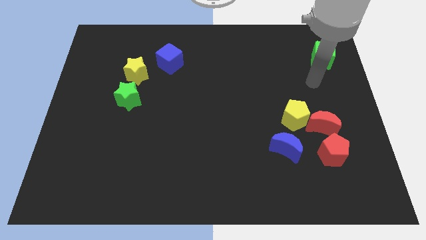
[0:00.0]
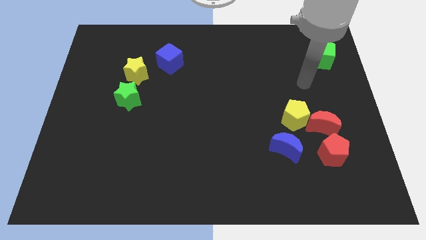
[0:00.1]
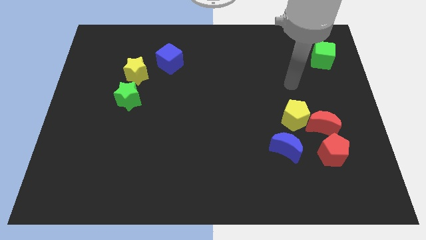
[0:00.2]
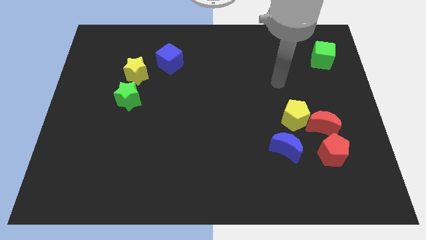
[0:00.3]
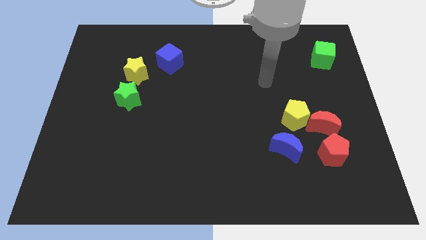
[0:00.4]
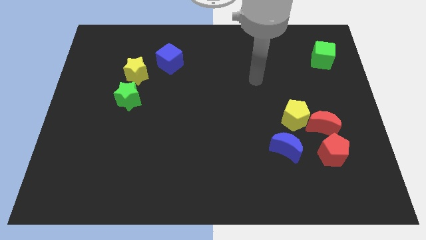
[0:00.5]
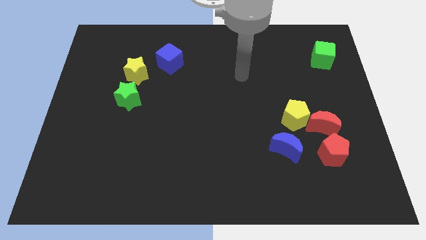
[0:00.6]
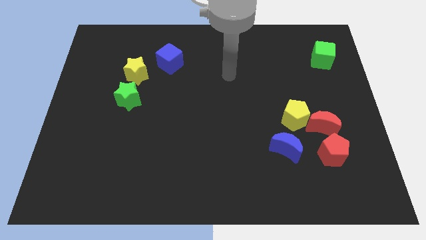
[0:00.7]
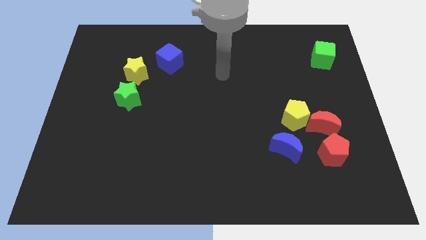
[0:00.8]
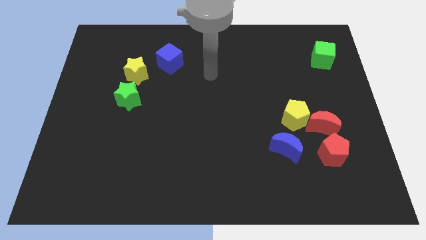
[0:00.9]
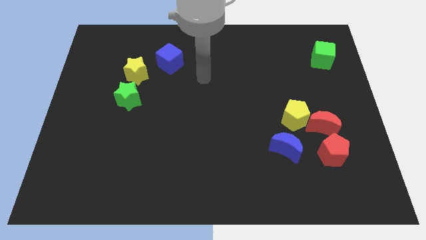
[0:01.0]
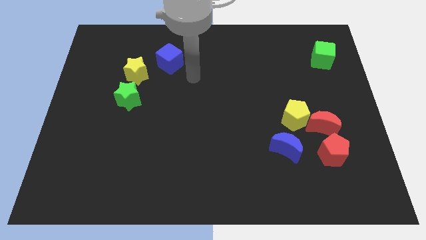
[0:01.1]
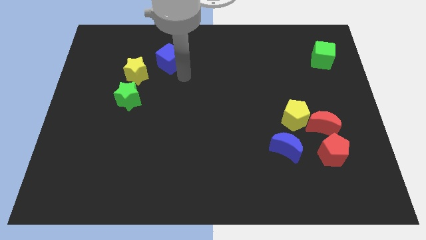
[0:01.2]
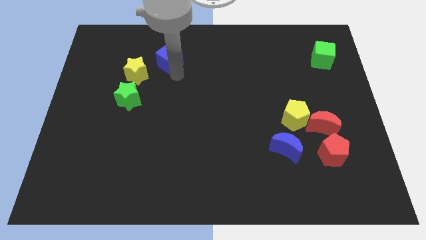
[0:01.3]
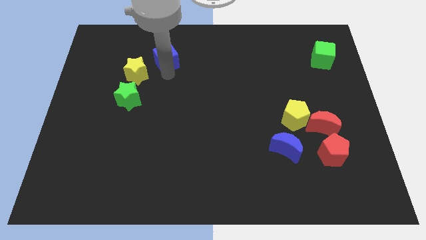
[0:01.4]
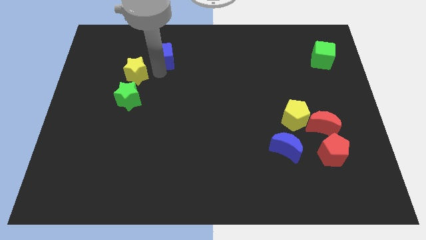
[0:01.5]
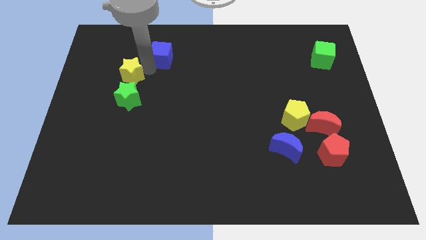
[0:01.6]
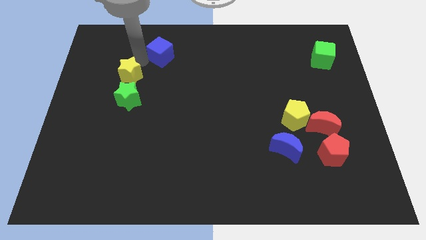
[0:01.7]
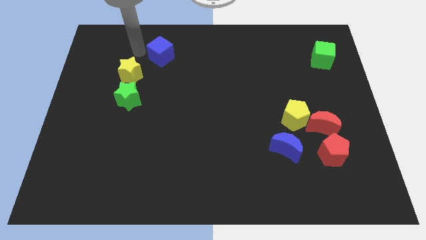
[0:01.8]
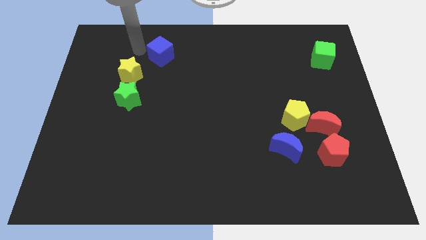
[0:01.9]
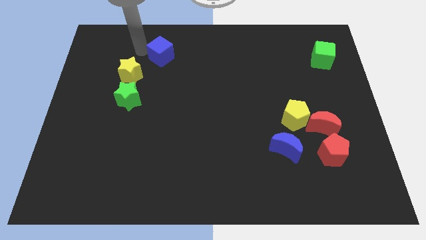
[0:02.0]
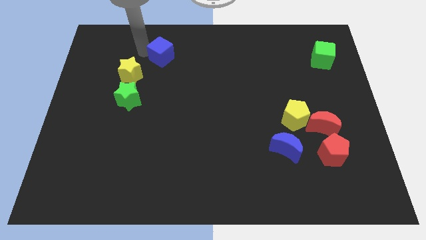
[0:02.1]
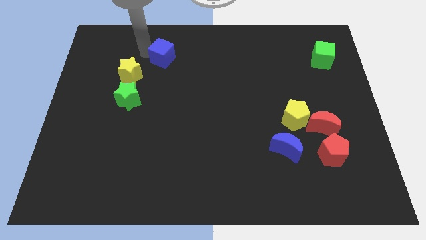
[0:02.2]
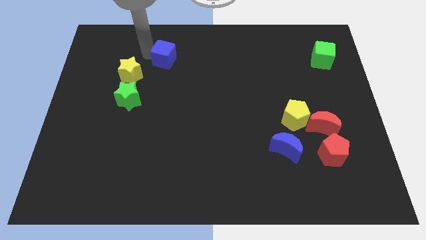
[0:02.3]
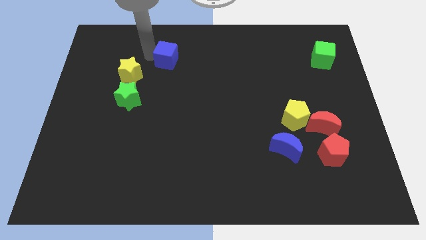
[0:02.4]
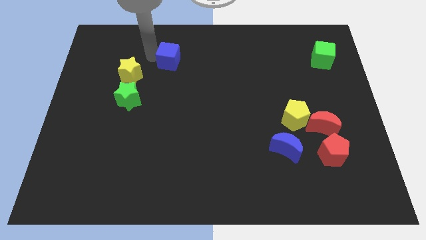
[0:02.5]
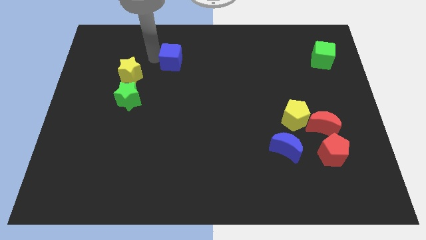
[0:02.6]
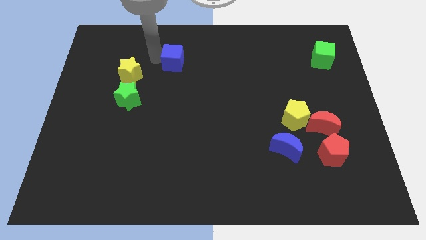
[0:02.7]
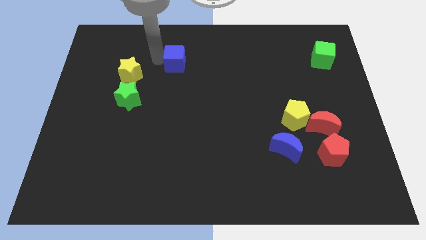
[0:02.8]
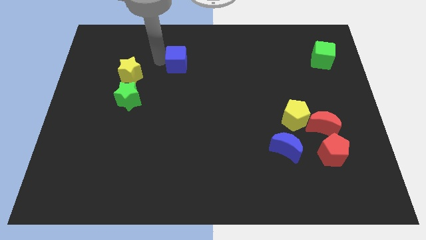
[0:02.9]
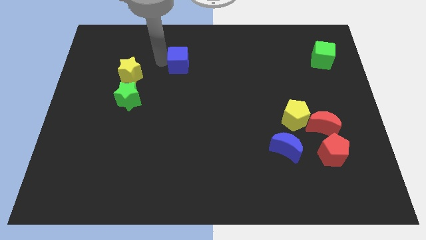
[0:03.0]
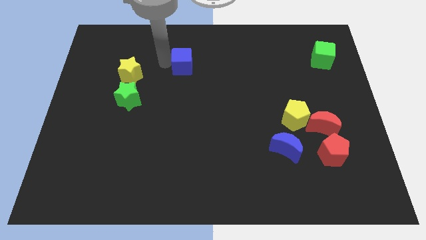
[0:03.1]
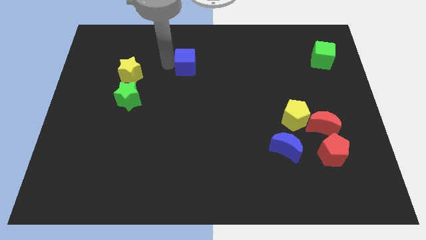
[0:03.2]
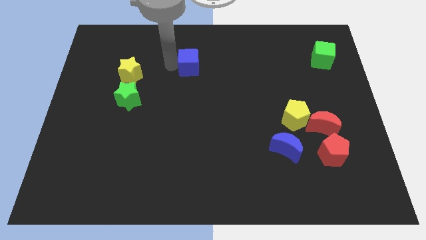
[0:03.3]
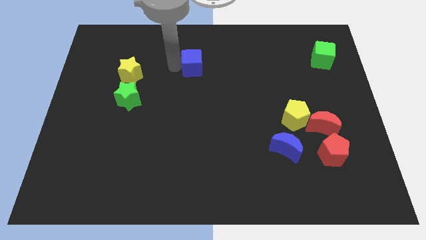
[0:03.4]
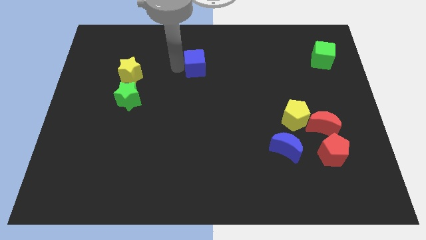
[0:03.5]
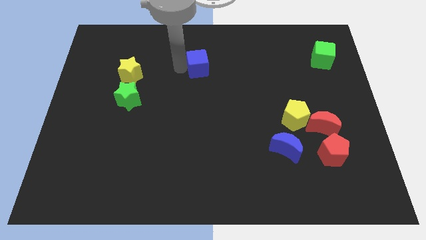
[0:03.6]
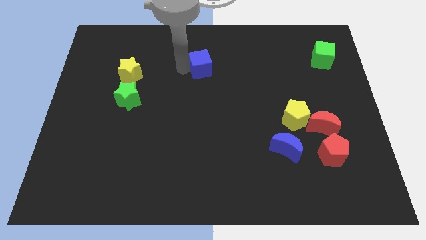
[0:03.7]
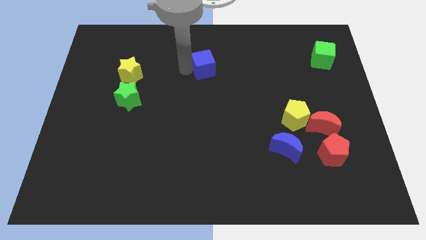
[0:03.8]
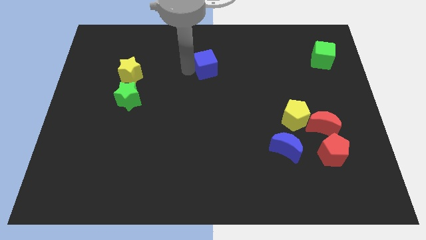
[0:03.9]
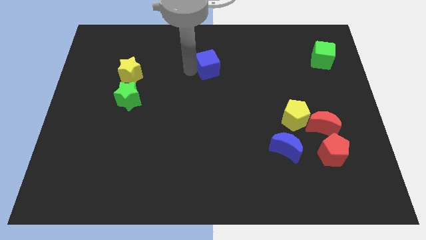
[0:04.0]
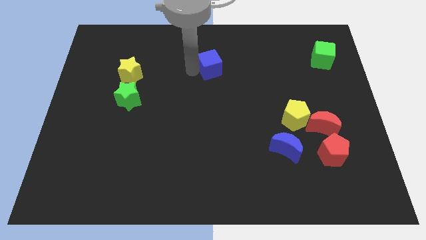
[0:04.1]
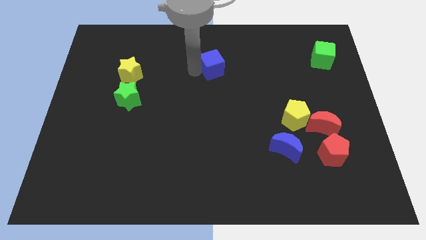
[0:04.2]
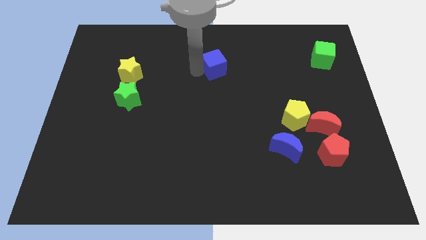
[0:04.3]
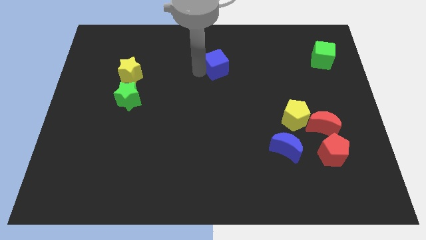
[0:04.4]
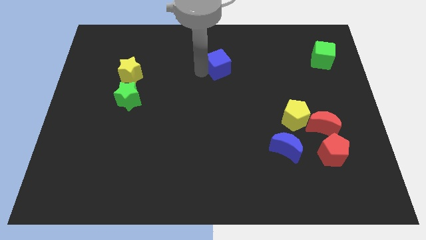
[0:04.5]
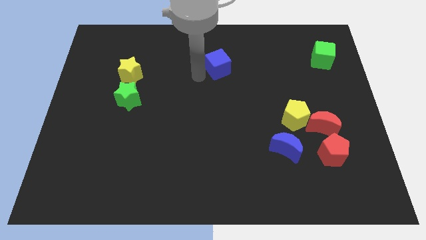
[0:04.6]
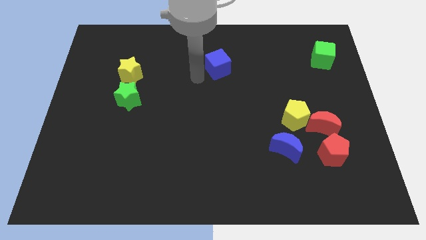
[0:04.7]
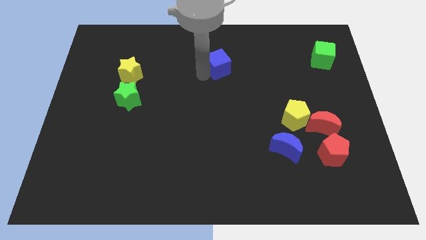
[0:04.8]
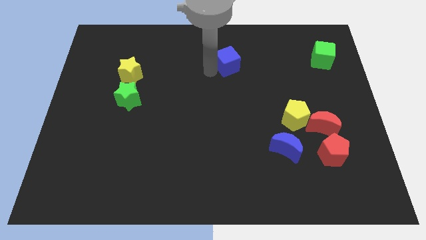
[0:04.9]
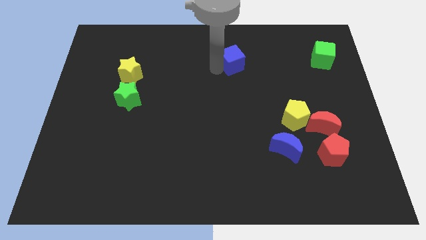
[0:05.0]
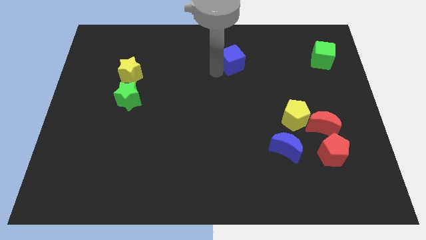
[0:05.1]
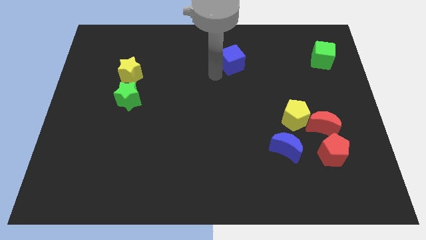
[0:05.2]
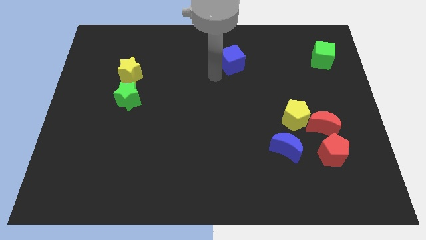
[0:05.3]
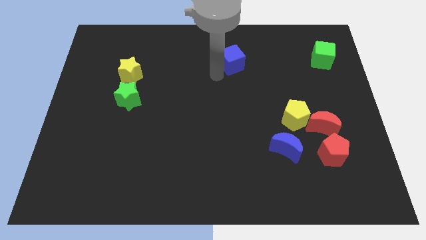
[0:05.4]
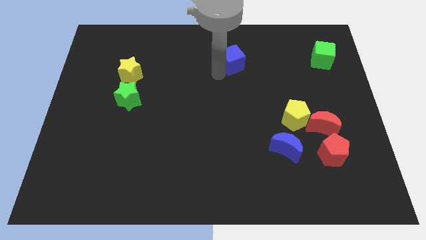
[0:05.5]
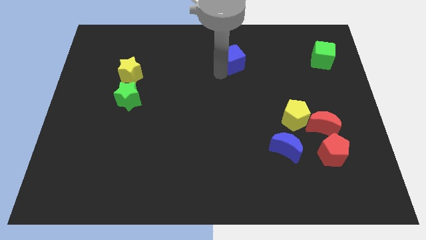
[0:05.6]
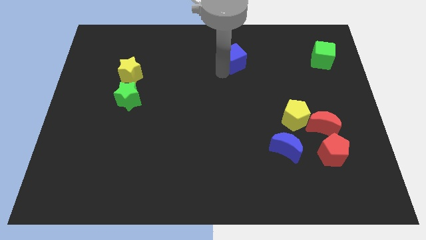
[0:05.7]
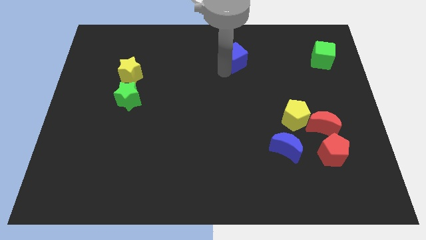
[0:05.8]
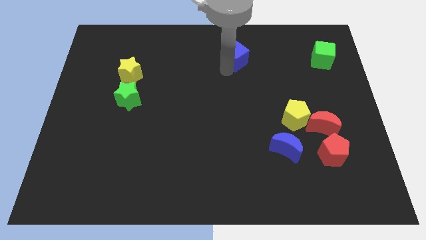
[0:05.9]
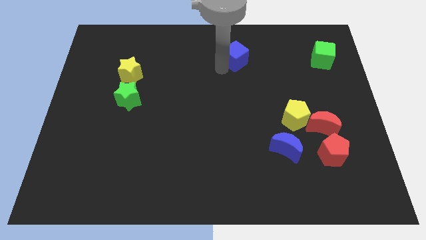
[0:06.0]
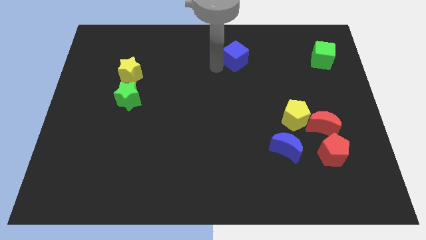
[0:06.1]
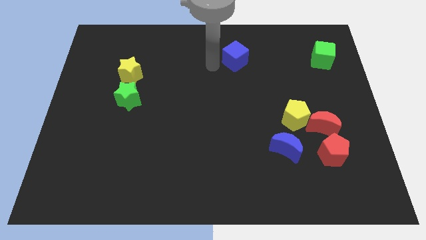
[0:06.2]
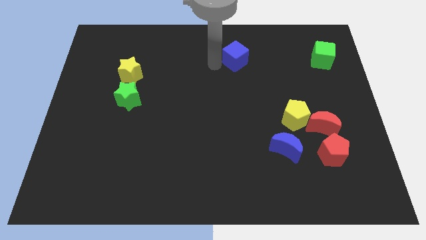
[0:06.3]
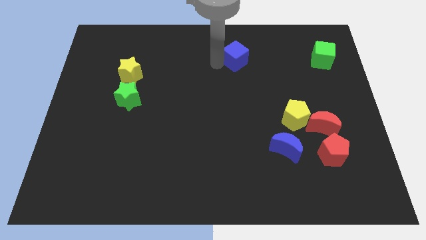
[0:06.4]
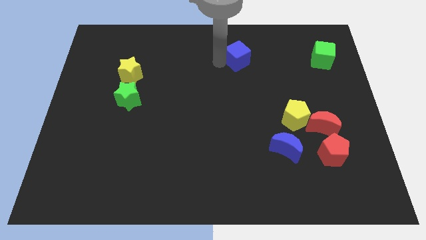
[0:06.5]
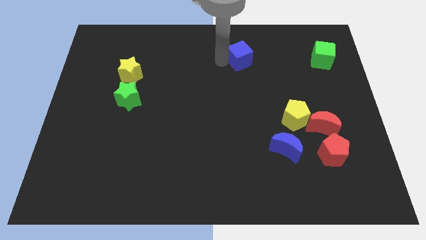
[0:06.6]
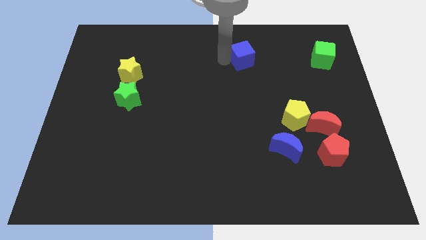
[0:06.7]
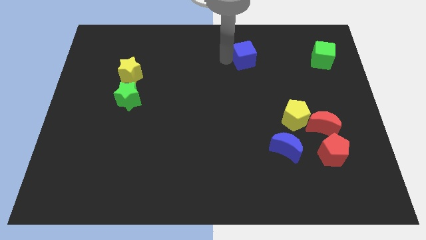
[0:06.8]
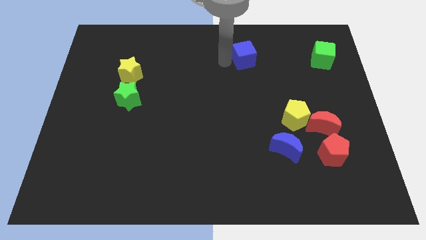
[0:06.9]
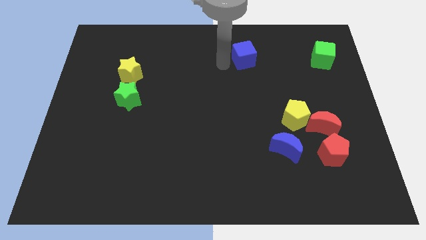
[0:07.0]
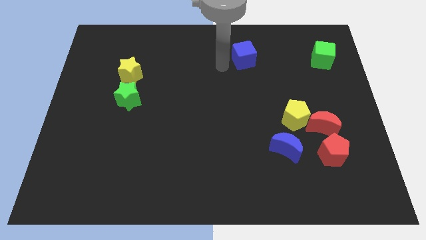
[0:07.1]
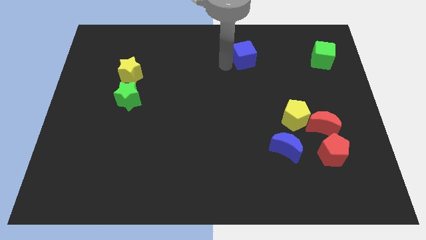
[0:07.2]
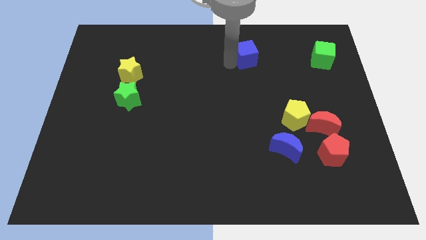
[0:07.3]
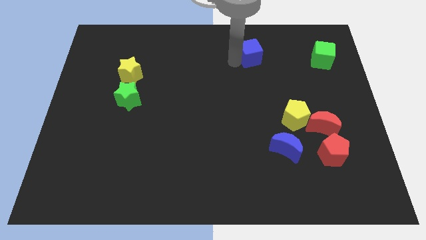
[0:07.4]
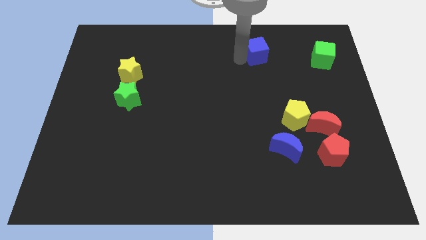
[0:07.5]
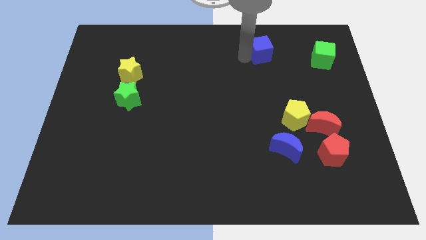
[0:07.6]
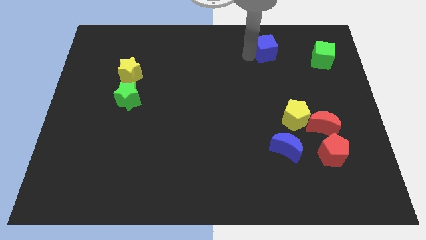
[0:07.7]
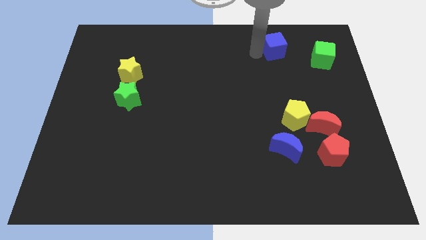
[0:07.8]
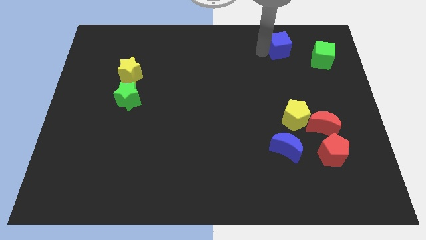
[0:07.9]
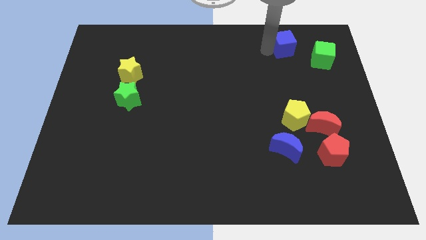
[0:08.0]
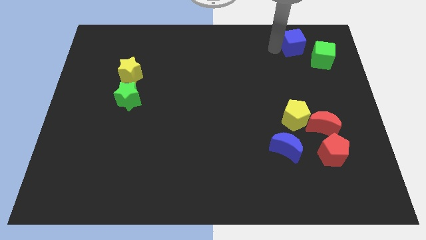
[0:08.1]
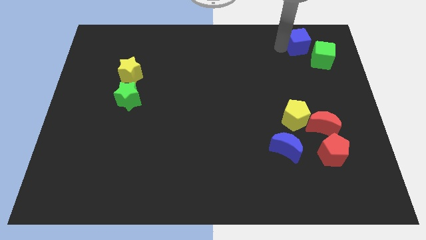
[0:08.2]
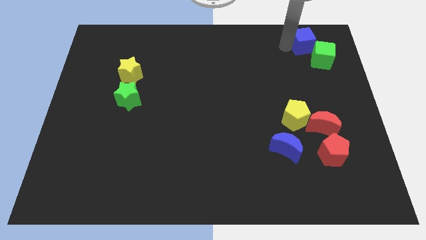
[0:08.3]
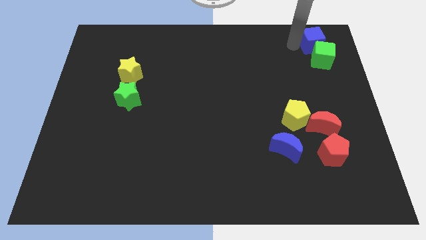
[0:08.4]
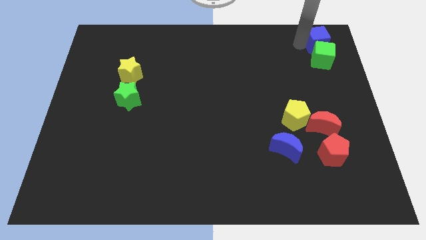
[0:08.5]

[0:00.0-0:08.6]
put the blue cube to the top right
